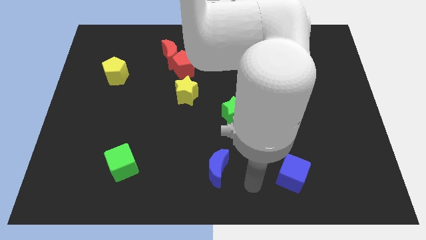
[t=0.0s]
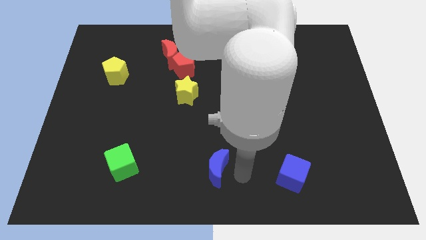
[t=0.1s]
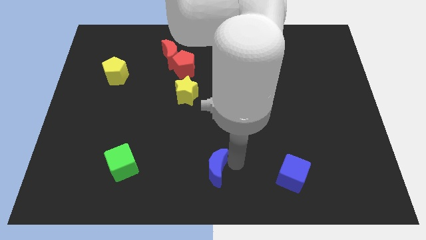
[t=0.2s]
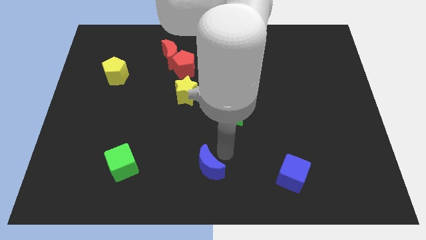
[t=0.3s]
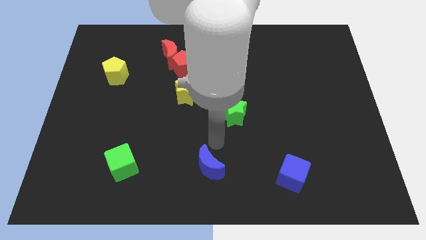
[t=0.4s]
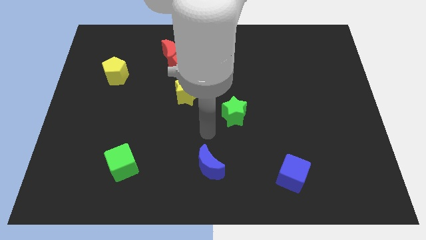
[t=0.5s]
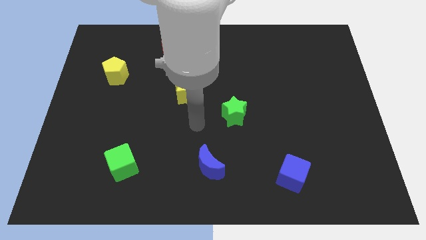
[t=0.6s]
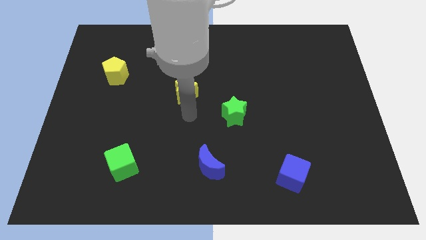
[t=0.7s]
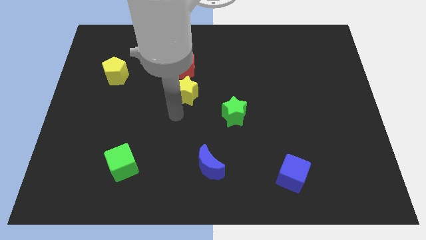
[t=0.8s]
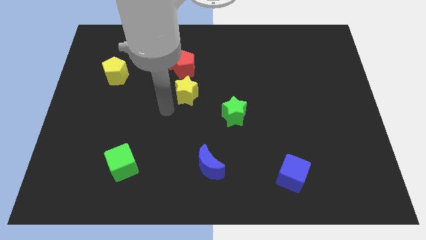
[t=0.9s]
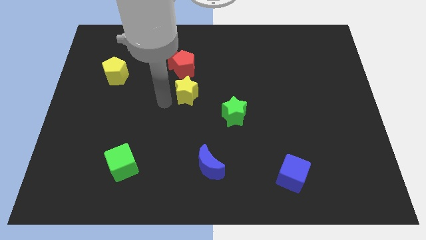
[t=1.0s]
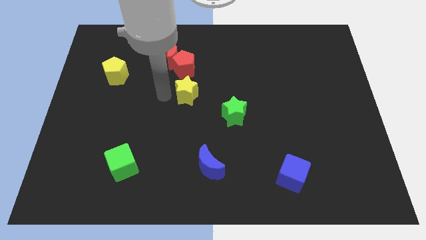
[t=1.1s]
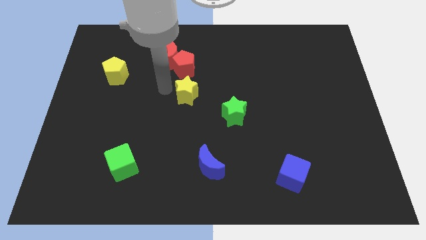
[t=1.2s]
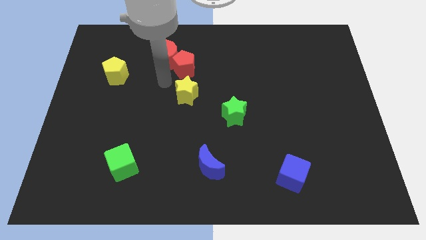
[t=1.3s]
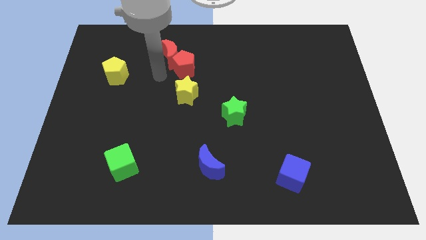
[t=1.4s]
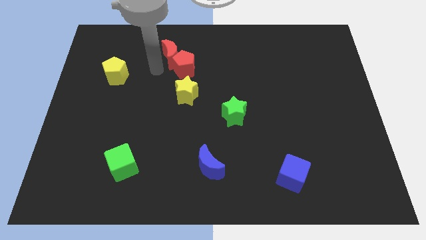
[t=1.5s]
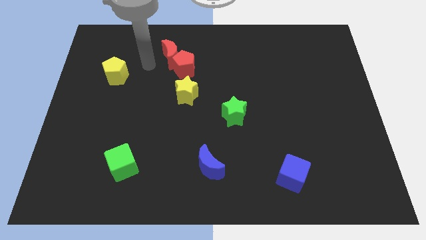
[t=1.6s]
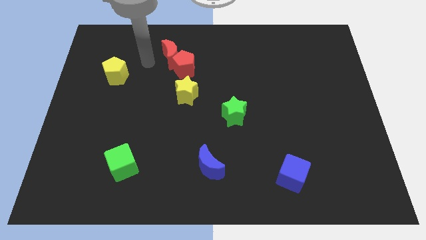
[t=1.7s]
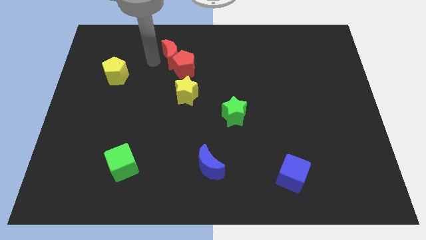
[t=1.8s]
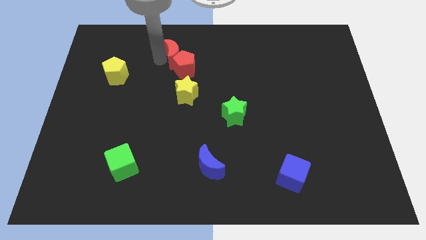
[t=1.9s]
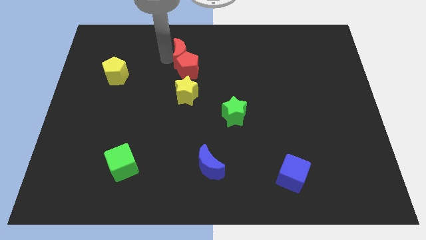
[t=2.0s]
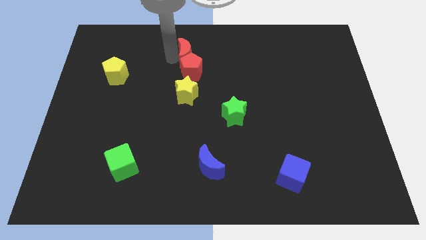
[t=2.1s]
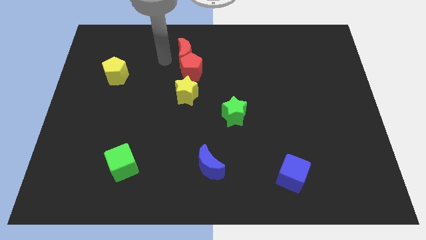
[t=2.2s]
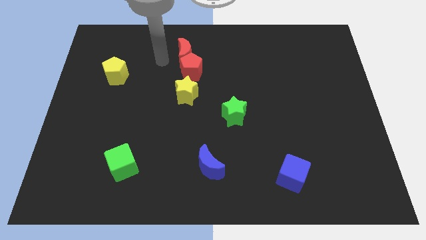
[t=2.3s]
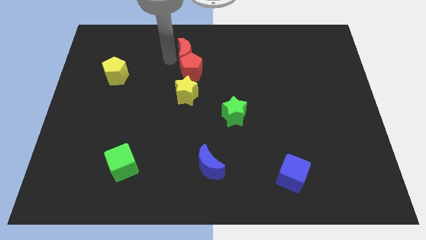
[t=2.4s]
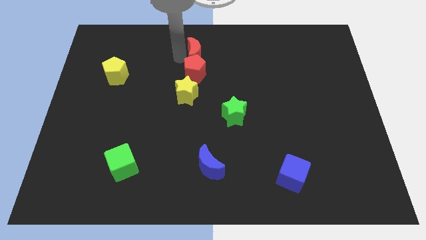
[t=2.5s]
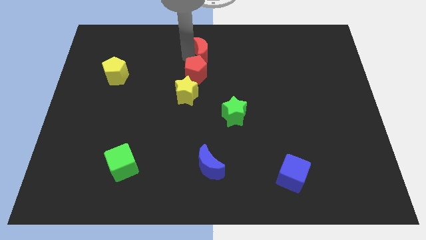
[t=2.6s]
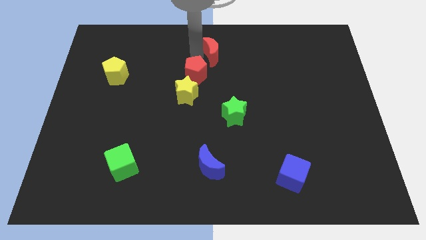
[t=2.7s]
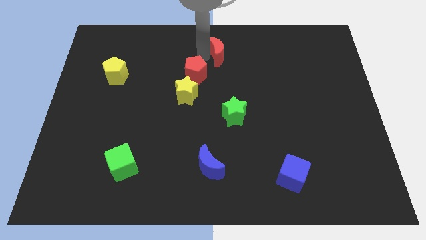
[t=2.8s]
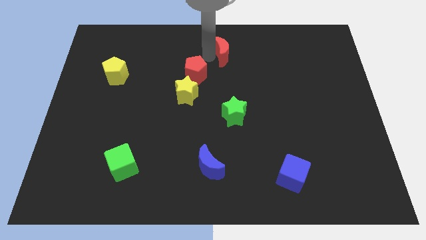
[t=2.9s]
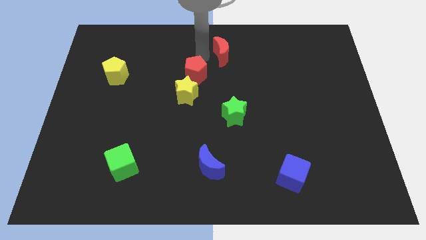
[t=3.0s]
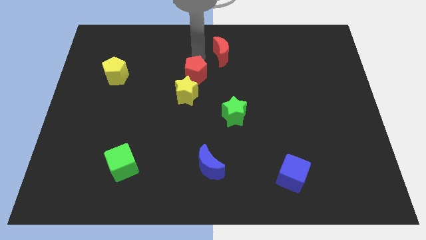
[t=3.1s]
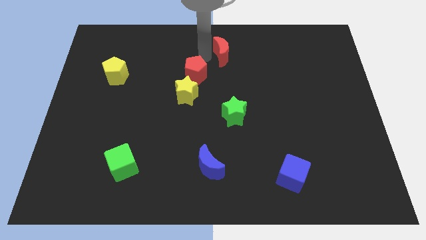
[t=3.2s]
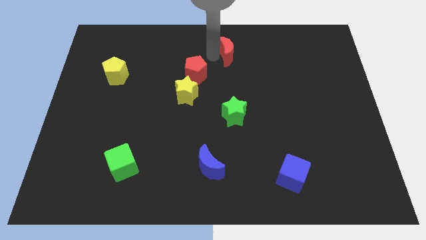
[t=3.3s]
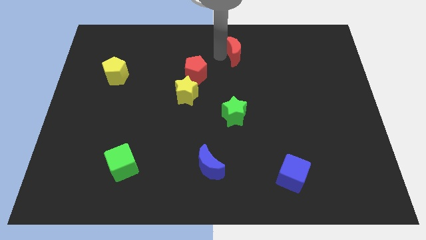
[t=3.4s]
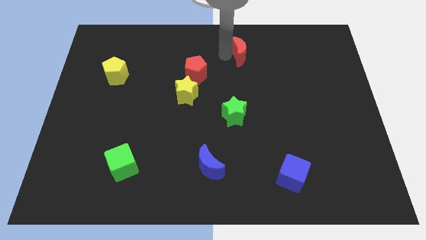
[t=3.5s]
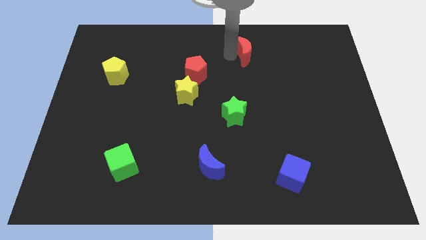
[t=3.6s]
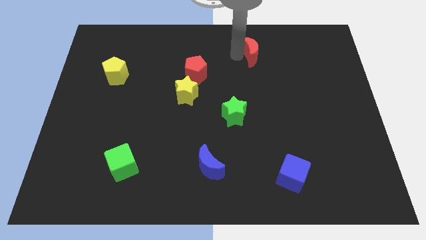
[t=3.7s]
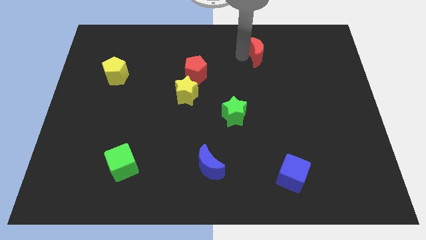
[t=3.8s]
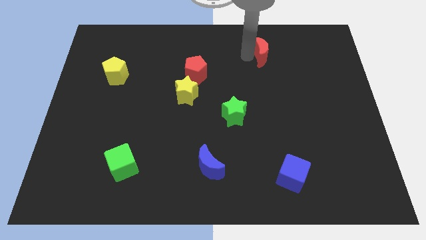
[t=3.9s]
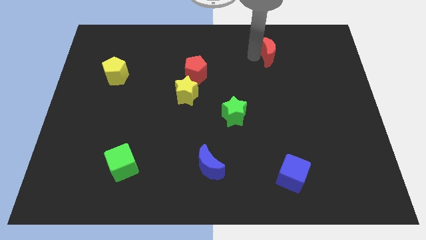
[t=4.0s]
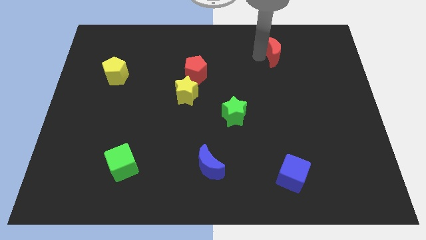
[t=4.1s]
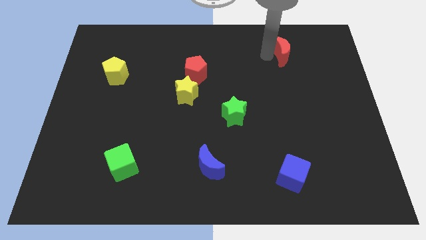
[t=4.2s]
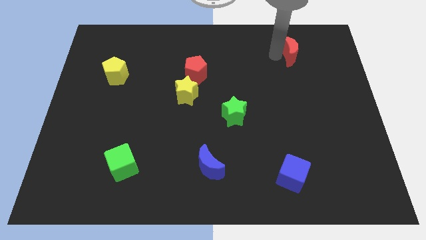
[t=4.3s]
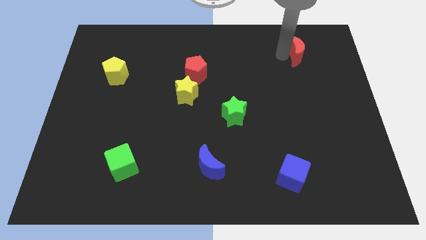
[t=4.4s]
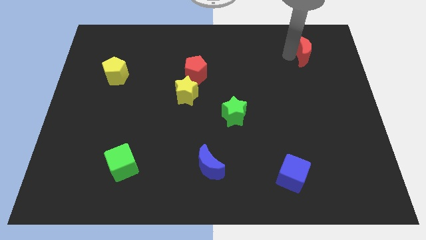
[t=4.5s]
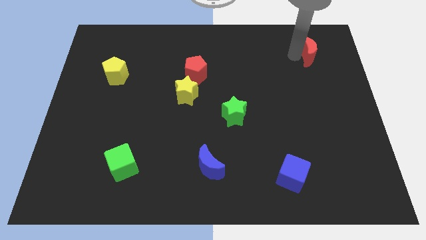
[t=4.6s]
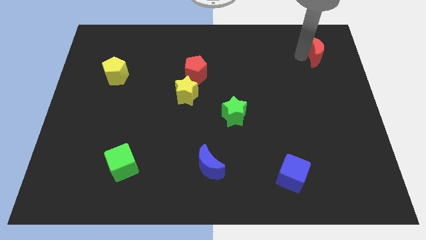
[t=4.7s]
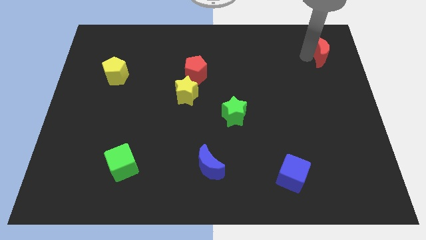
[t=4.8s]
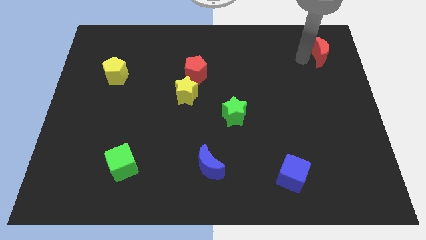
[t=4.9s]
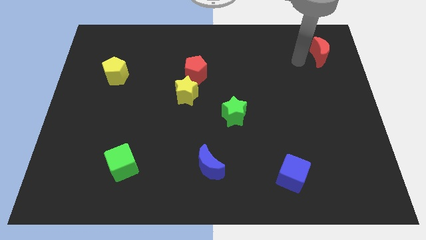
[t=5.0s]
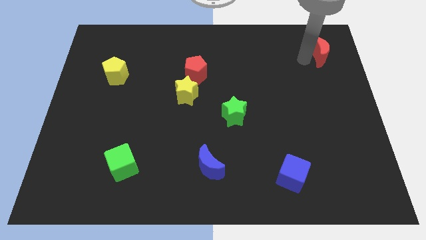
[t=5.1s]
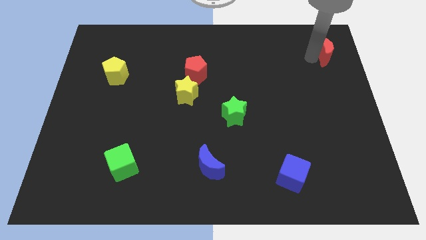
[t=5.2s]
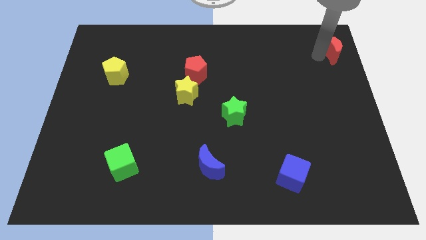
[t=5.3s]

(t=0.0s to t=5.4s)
put the red moon to the top right of the board

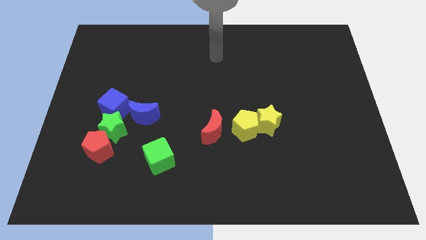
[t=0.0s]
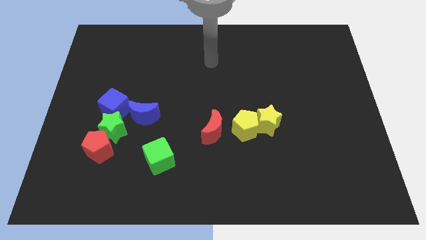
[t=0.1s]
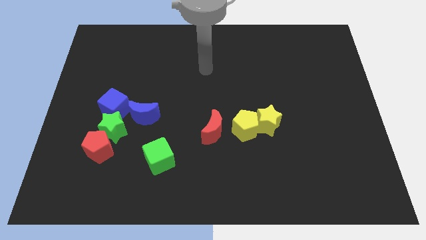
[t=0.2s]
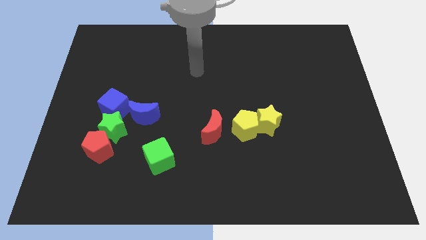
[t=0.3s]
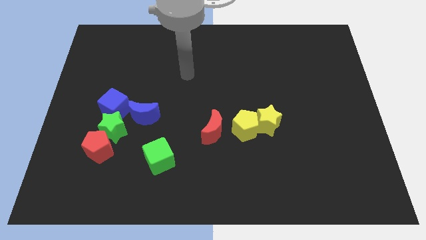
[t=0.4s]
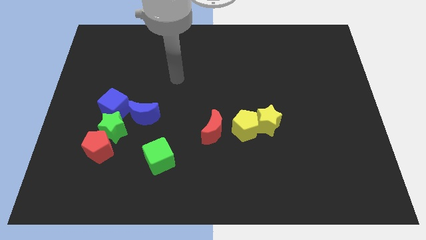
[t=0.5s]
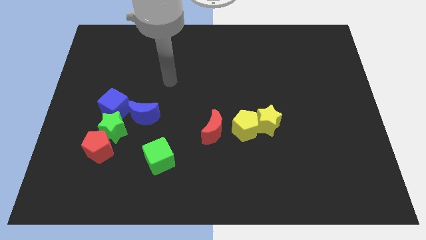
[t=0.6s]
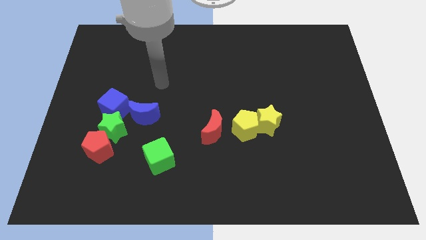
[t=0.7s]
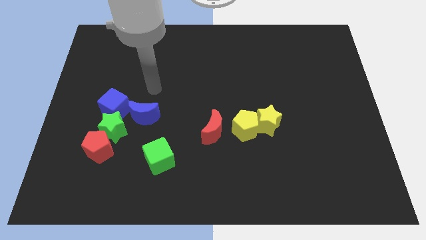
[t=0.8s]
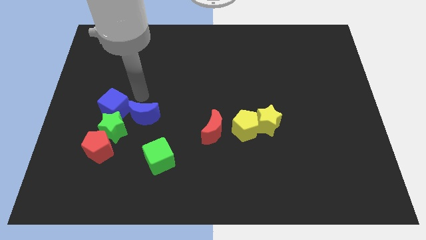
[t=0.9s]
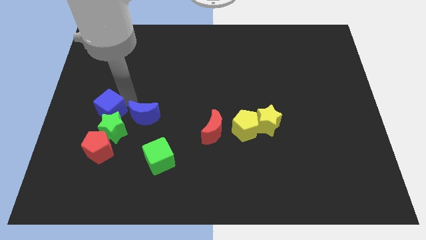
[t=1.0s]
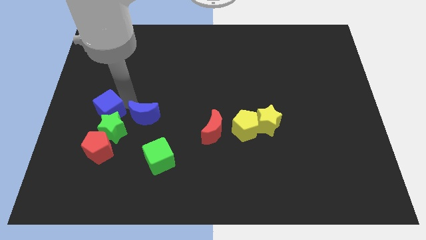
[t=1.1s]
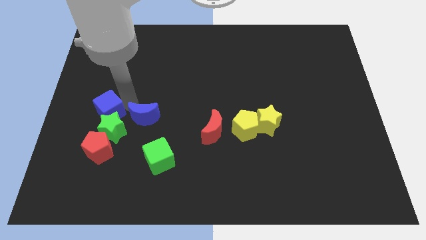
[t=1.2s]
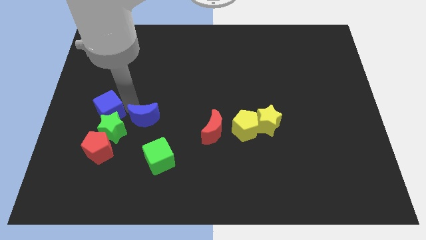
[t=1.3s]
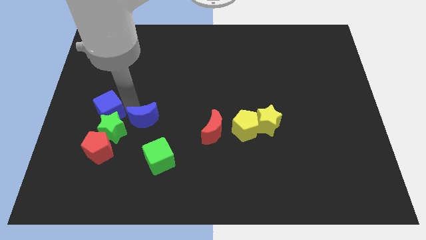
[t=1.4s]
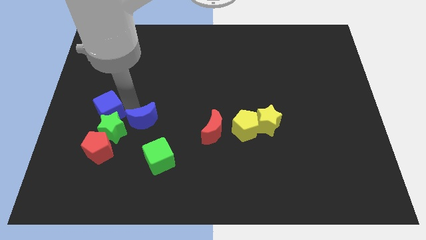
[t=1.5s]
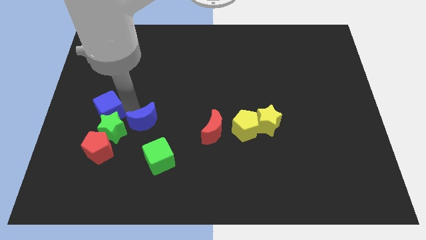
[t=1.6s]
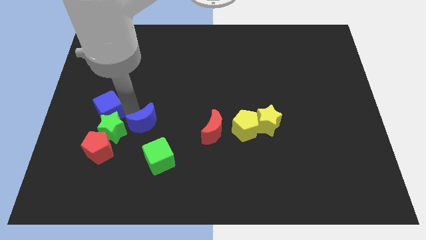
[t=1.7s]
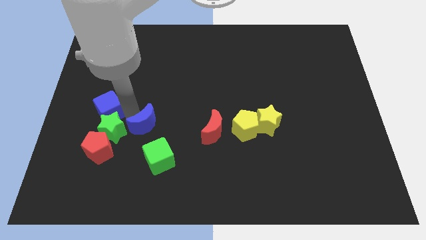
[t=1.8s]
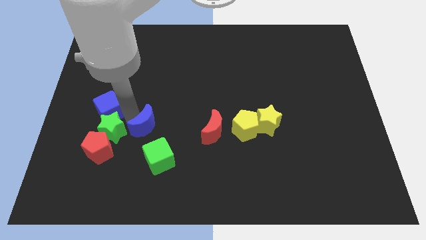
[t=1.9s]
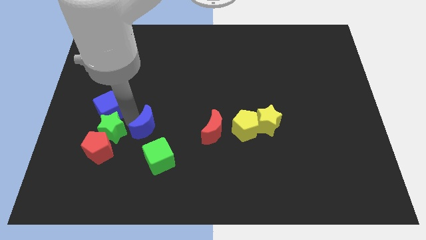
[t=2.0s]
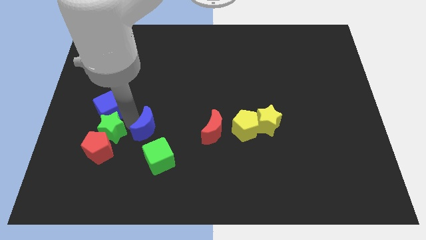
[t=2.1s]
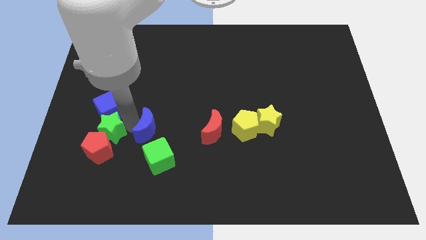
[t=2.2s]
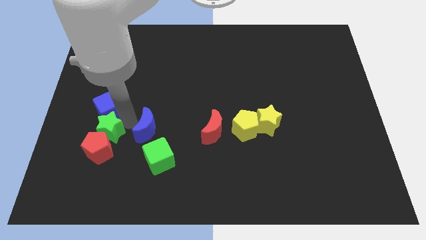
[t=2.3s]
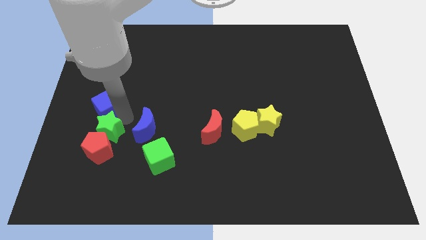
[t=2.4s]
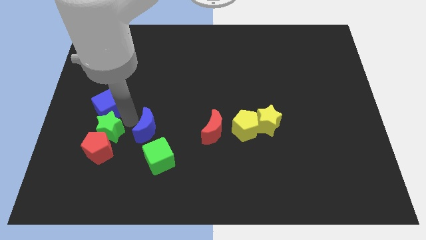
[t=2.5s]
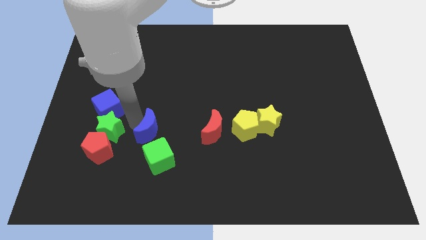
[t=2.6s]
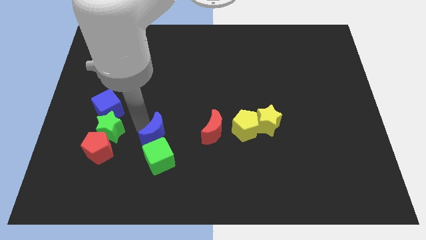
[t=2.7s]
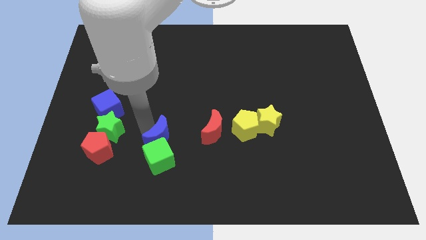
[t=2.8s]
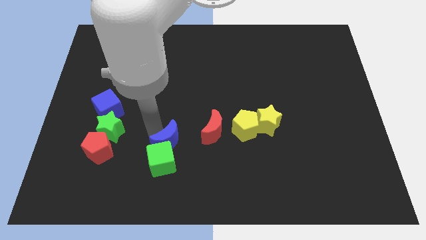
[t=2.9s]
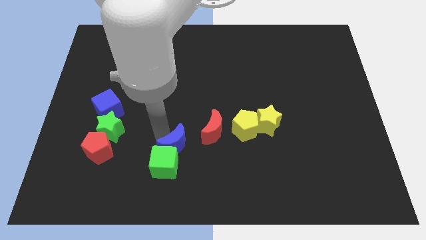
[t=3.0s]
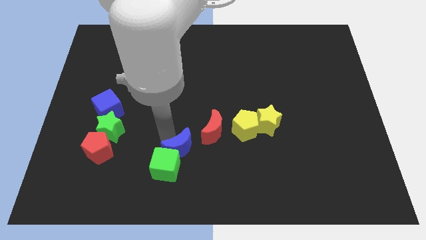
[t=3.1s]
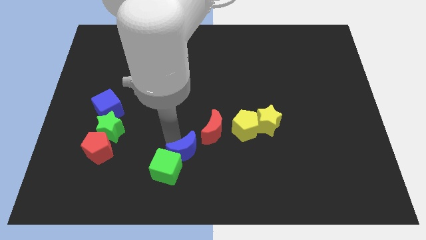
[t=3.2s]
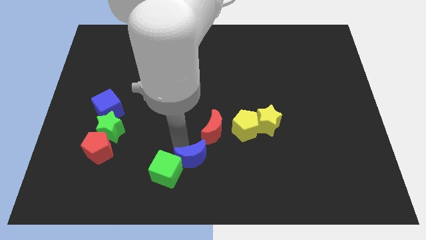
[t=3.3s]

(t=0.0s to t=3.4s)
put the blue moon to the bottom side
